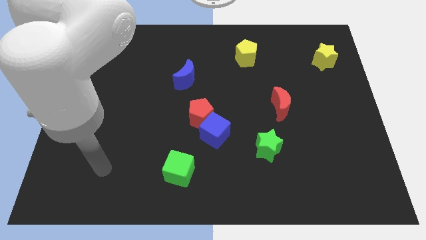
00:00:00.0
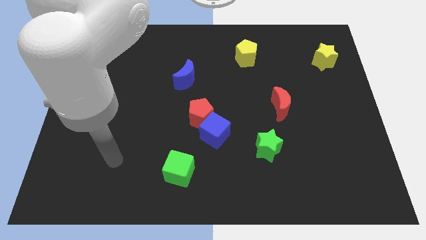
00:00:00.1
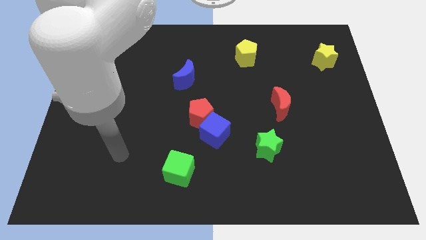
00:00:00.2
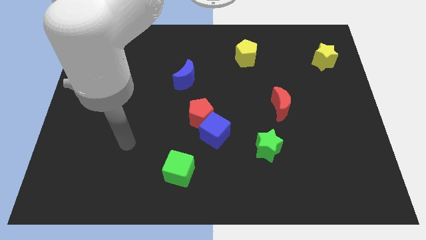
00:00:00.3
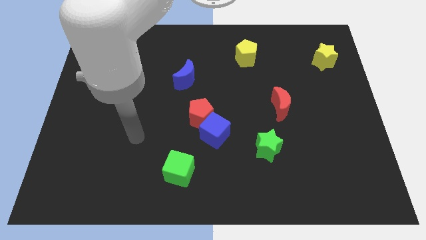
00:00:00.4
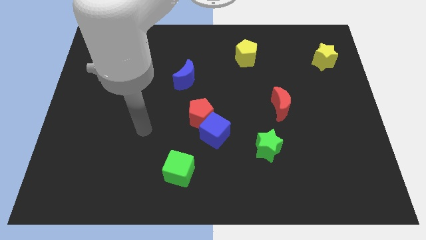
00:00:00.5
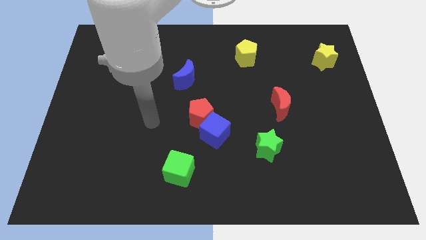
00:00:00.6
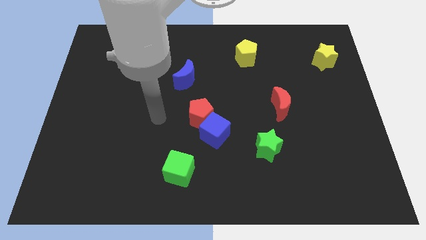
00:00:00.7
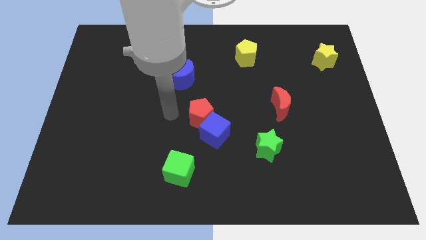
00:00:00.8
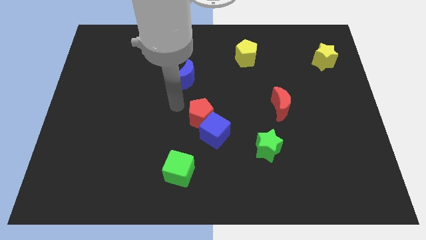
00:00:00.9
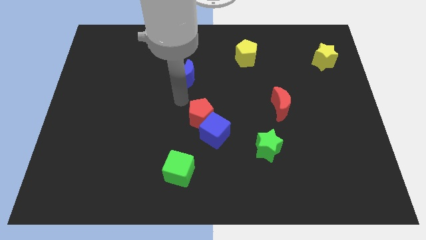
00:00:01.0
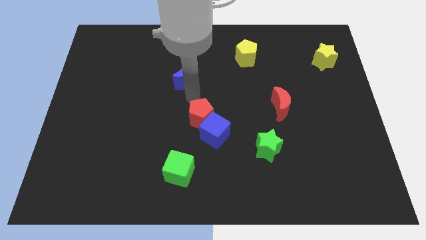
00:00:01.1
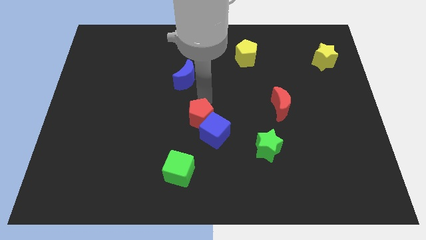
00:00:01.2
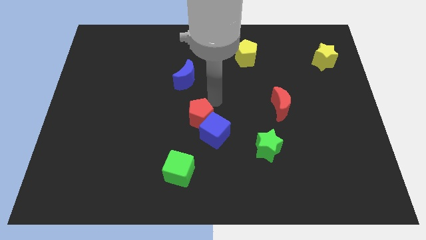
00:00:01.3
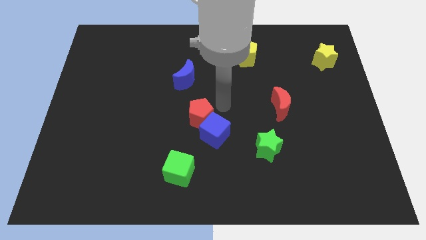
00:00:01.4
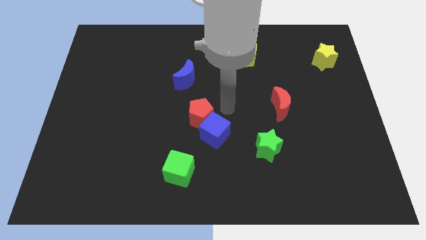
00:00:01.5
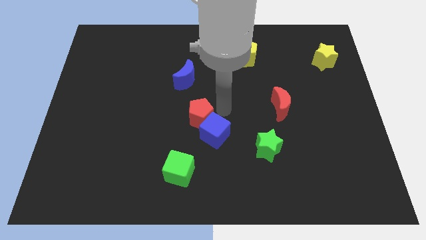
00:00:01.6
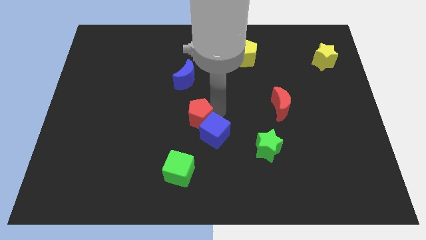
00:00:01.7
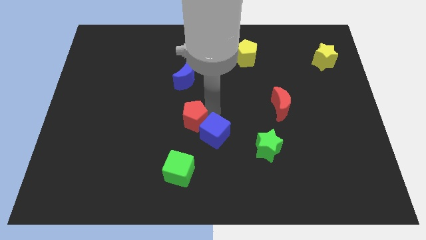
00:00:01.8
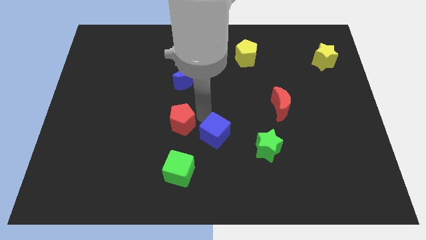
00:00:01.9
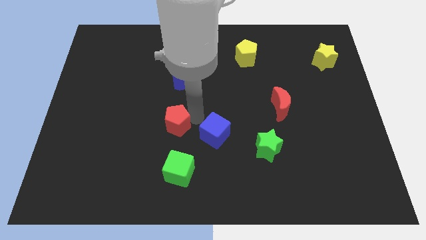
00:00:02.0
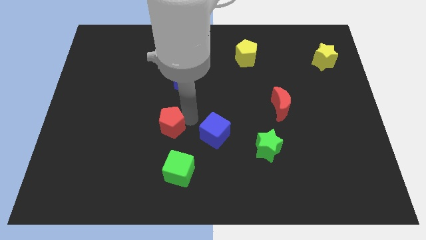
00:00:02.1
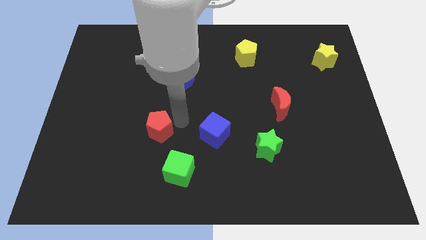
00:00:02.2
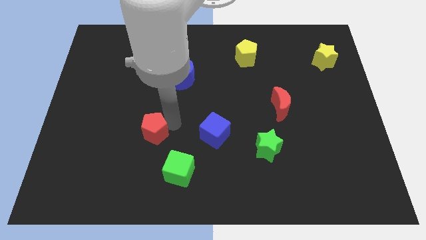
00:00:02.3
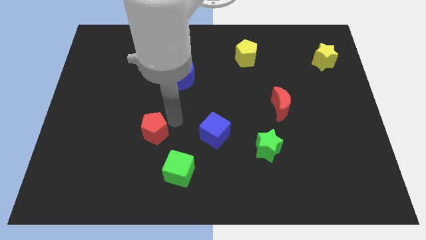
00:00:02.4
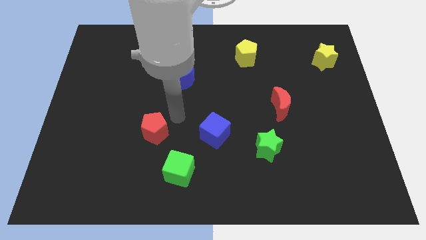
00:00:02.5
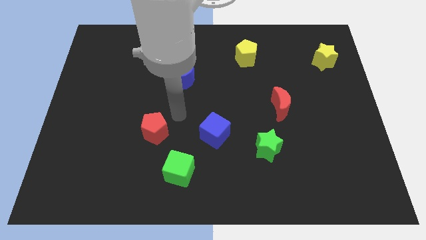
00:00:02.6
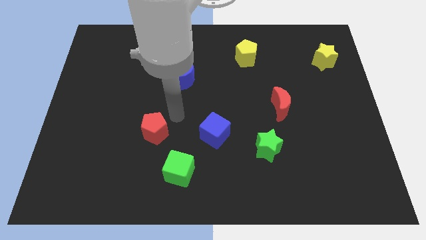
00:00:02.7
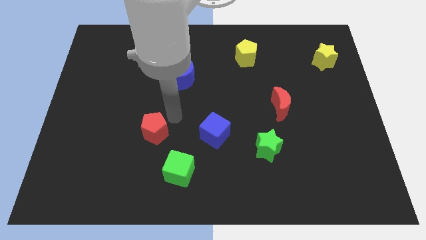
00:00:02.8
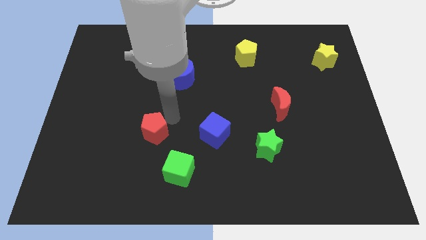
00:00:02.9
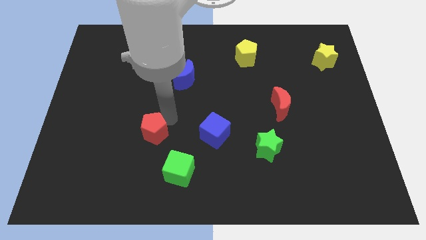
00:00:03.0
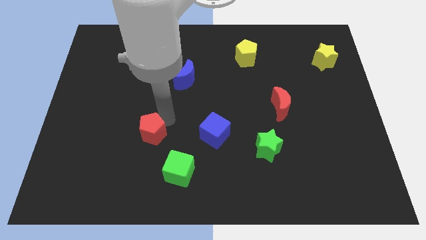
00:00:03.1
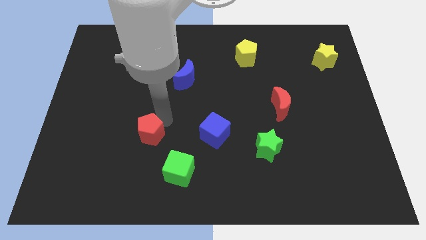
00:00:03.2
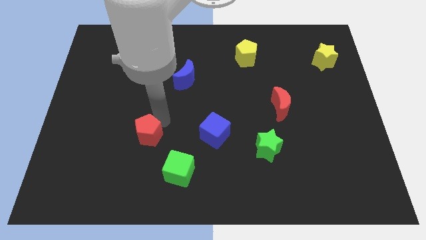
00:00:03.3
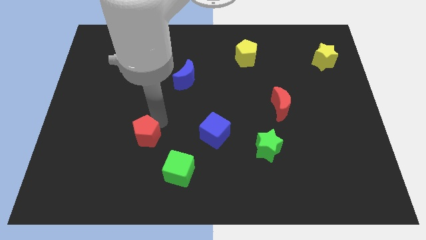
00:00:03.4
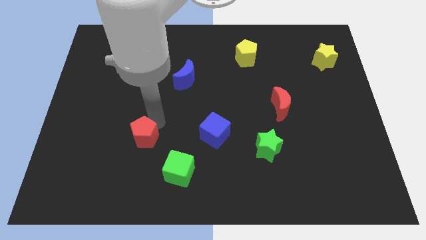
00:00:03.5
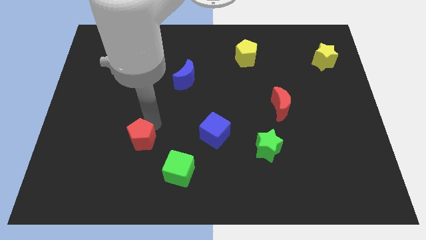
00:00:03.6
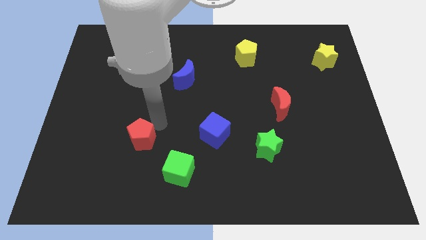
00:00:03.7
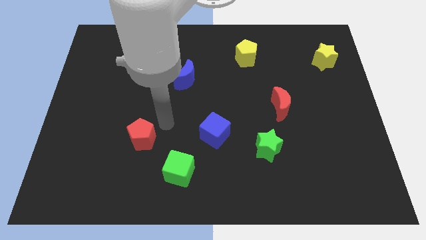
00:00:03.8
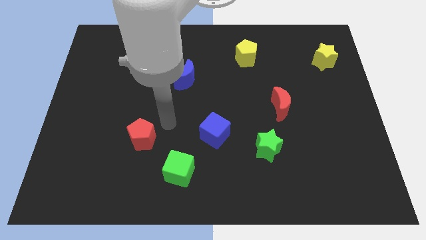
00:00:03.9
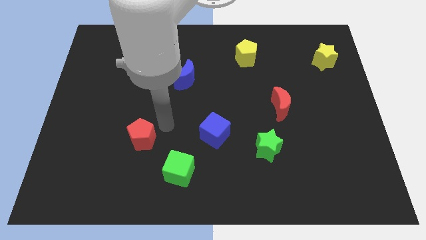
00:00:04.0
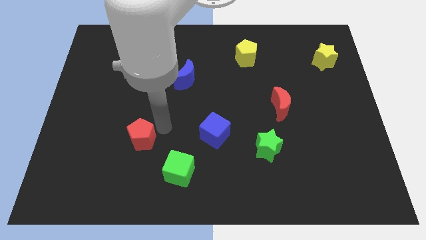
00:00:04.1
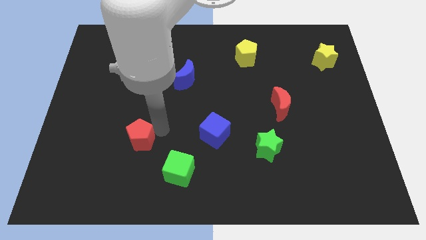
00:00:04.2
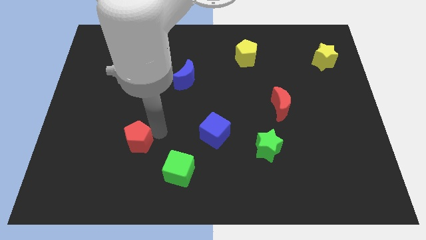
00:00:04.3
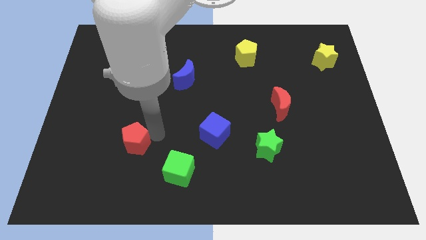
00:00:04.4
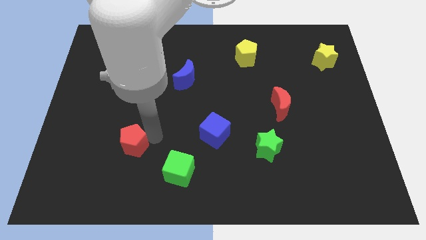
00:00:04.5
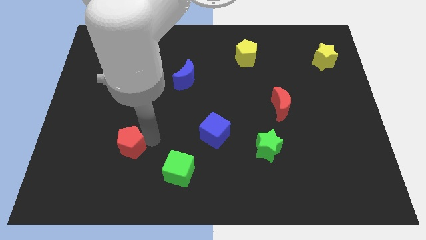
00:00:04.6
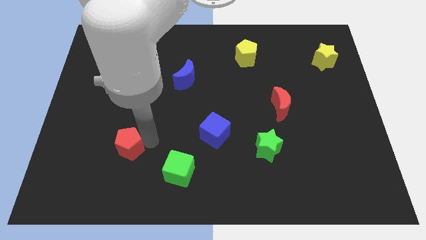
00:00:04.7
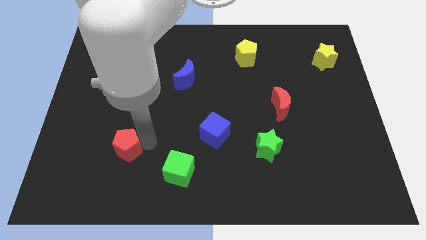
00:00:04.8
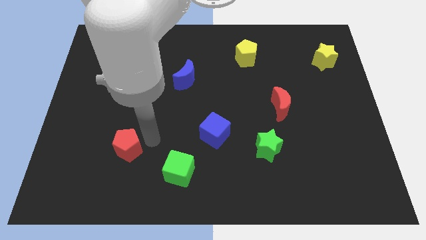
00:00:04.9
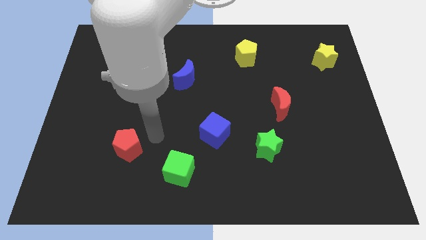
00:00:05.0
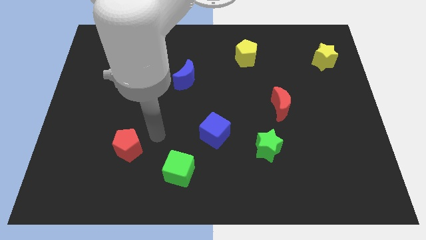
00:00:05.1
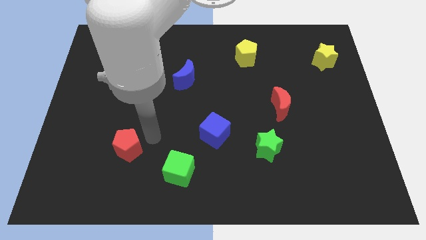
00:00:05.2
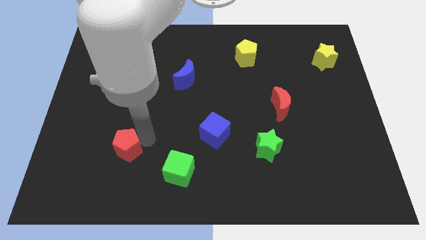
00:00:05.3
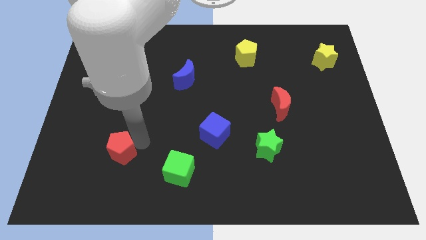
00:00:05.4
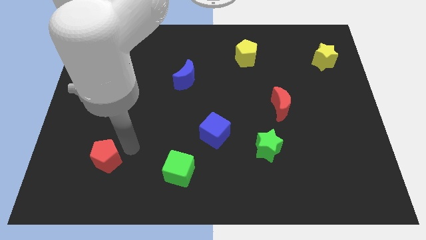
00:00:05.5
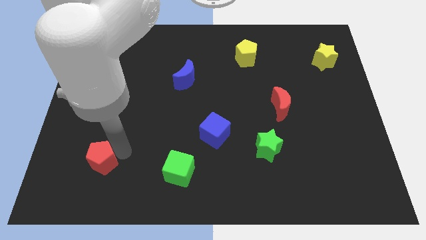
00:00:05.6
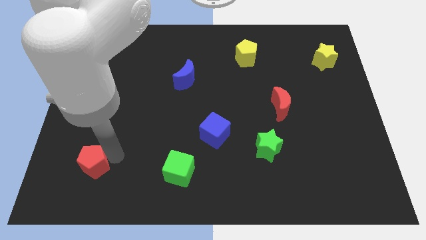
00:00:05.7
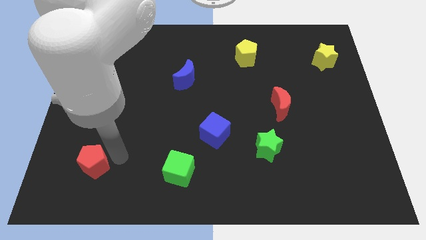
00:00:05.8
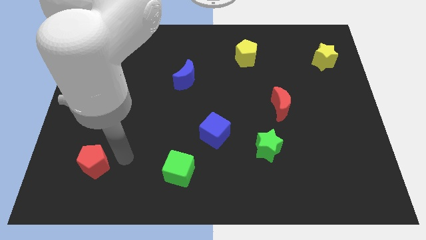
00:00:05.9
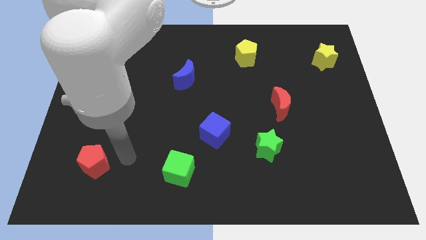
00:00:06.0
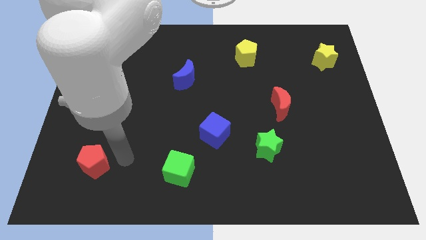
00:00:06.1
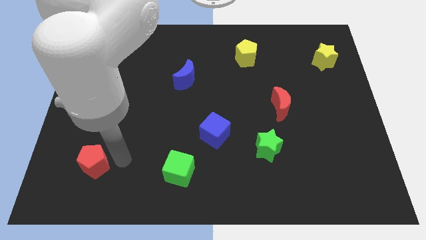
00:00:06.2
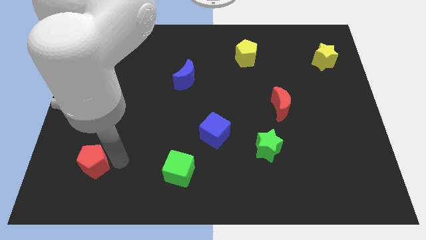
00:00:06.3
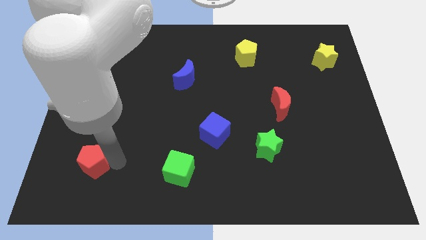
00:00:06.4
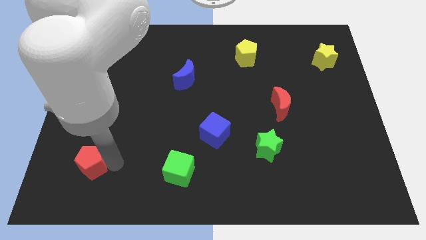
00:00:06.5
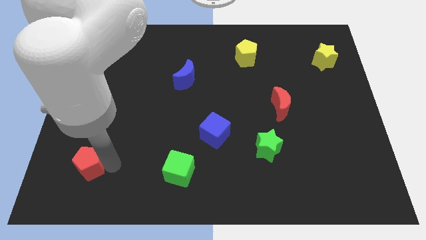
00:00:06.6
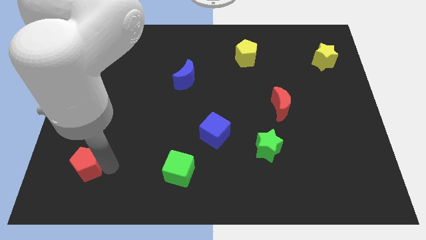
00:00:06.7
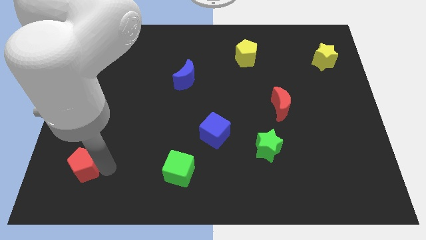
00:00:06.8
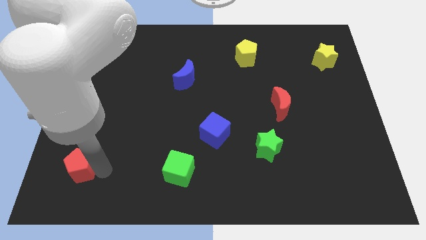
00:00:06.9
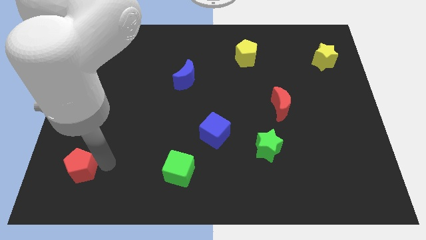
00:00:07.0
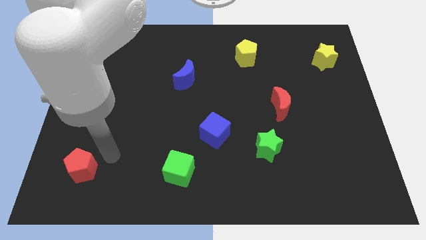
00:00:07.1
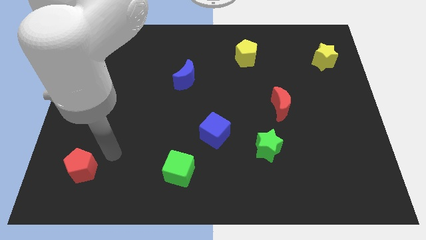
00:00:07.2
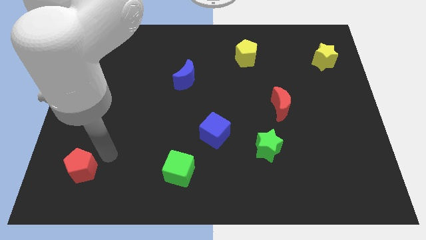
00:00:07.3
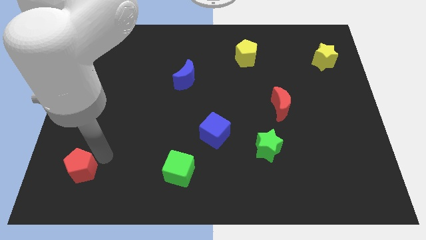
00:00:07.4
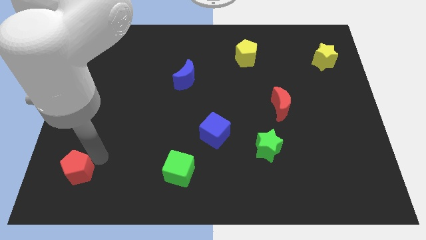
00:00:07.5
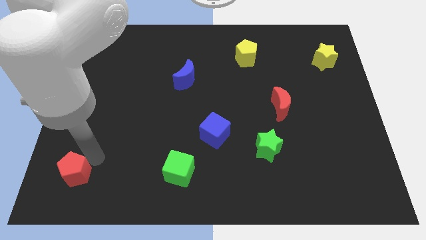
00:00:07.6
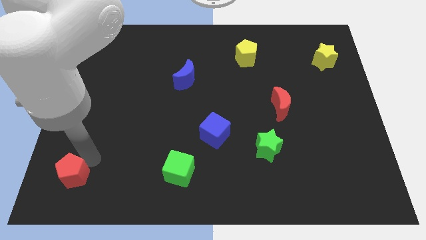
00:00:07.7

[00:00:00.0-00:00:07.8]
slide the red pentagon to the lower left corner
